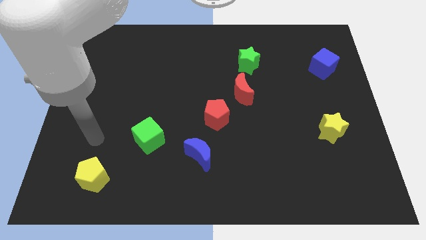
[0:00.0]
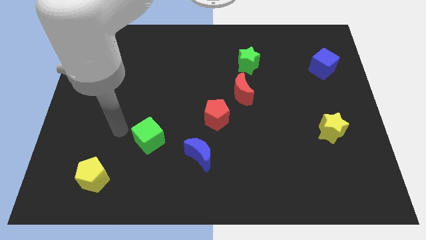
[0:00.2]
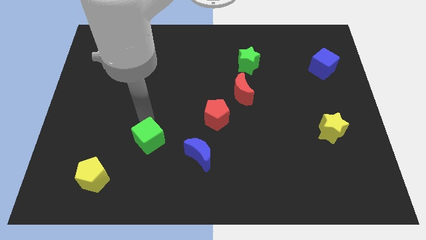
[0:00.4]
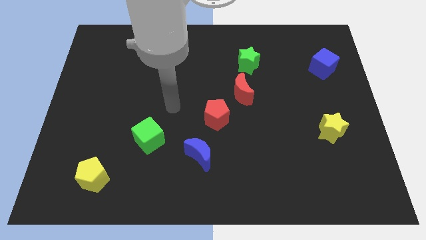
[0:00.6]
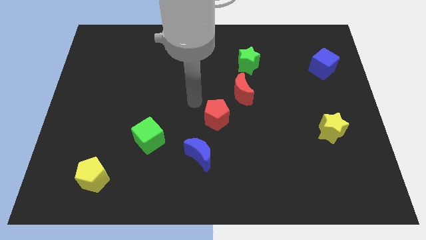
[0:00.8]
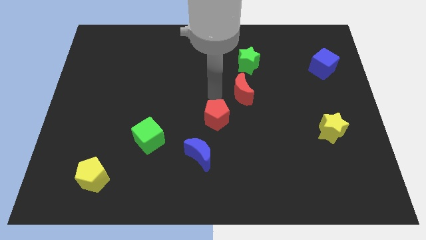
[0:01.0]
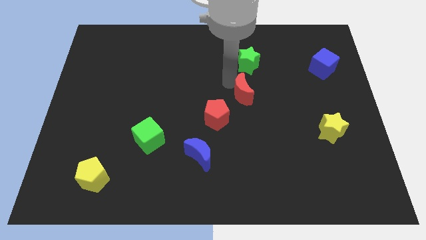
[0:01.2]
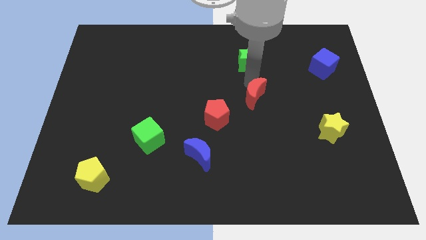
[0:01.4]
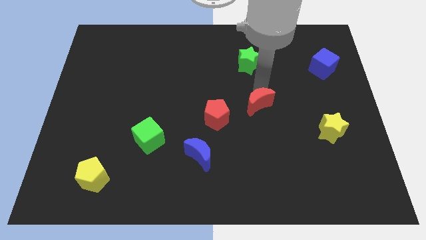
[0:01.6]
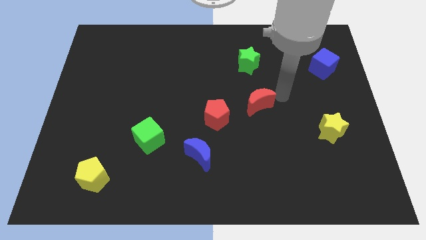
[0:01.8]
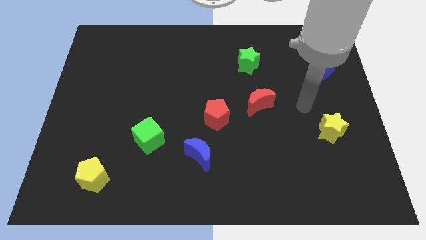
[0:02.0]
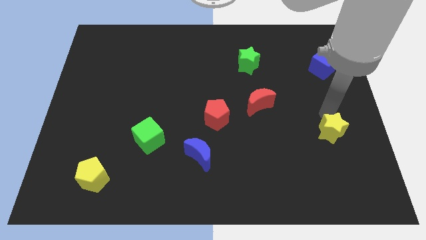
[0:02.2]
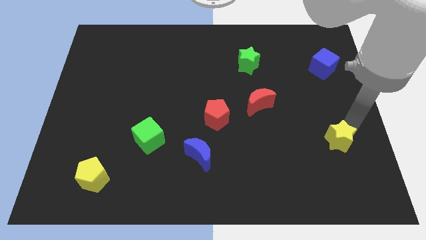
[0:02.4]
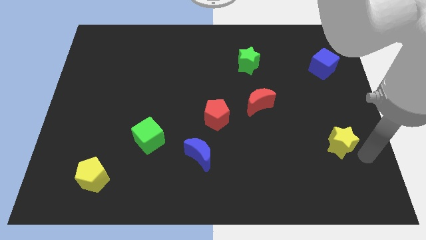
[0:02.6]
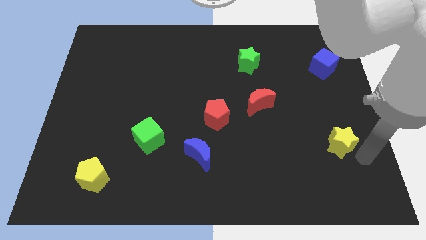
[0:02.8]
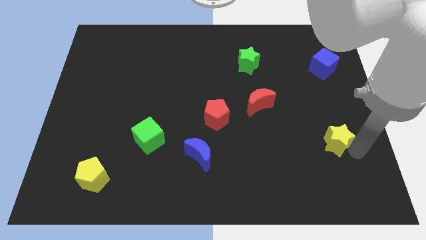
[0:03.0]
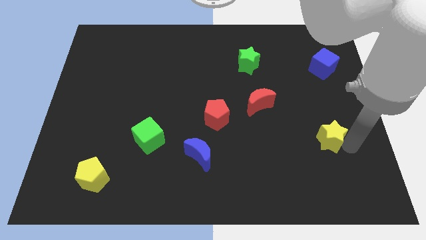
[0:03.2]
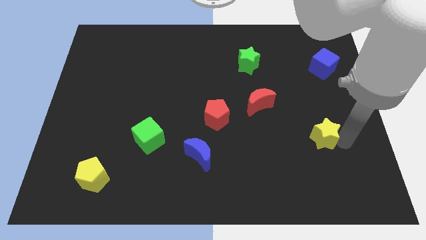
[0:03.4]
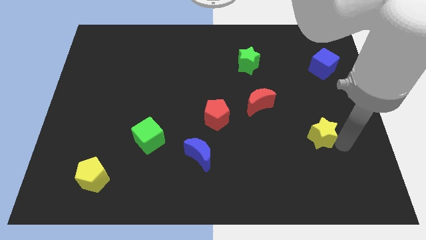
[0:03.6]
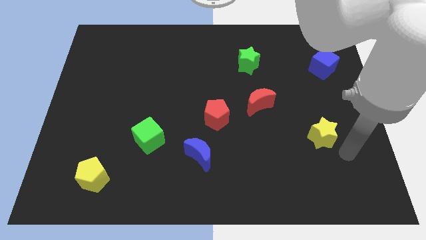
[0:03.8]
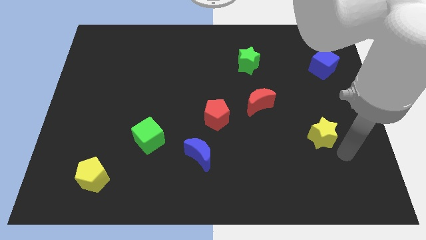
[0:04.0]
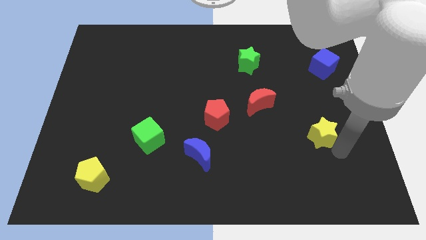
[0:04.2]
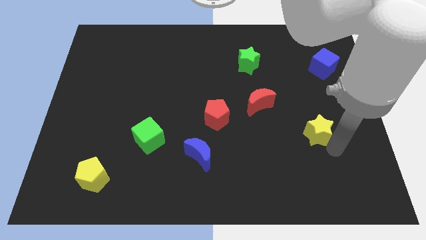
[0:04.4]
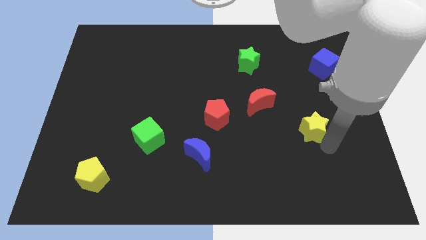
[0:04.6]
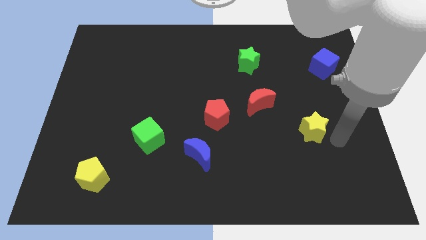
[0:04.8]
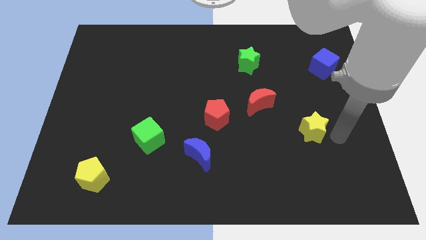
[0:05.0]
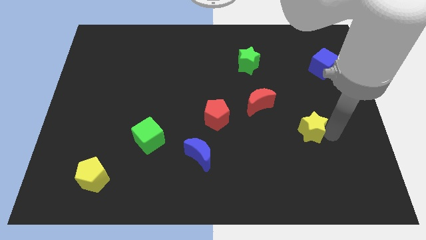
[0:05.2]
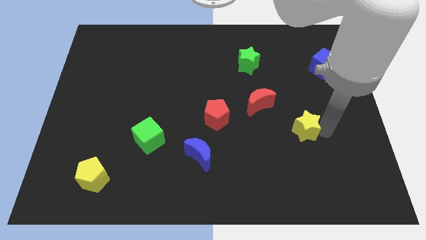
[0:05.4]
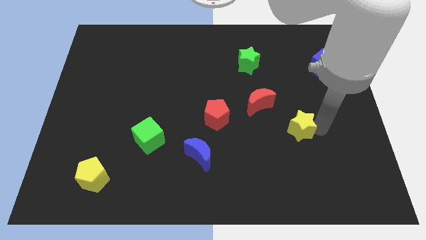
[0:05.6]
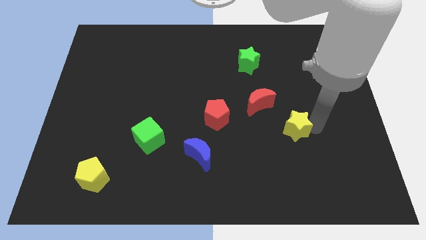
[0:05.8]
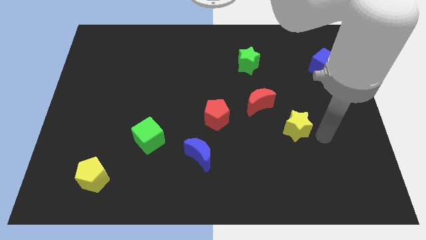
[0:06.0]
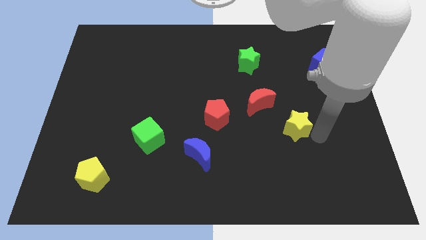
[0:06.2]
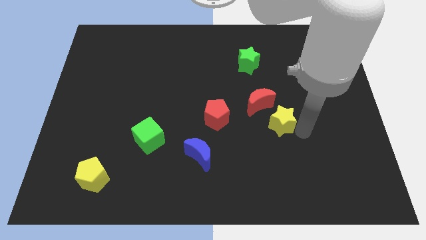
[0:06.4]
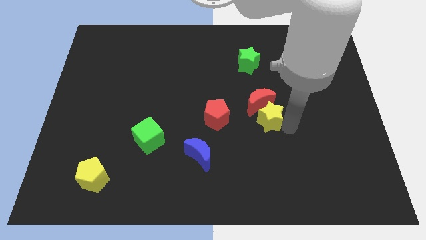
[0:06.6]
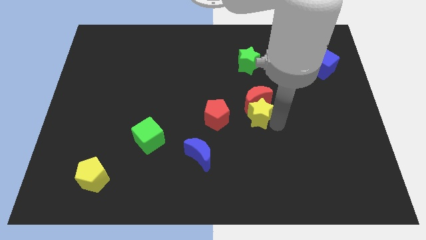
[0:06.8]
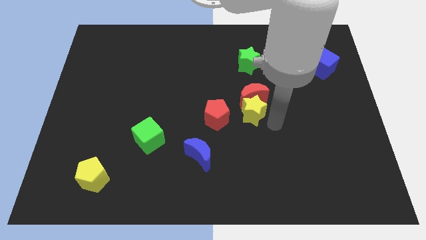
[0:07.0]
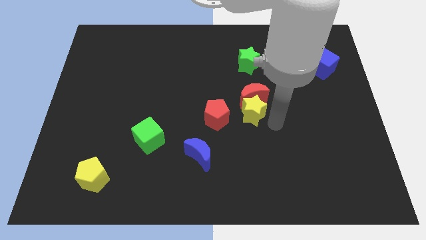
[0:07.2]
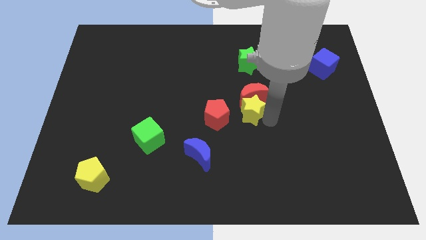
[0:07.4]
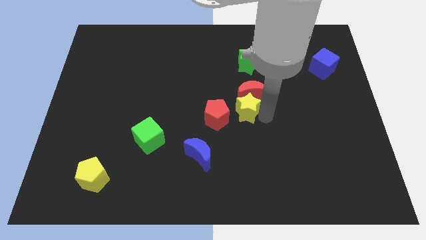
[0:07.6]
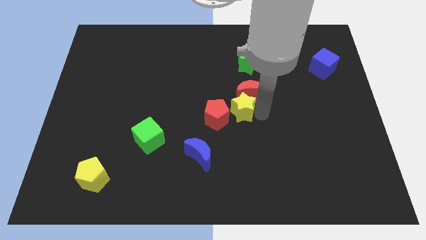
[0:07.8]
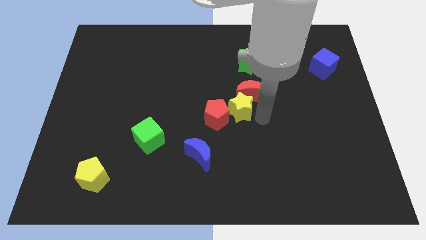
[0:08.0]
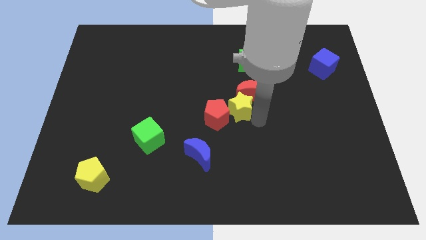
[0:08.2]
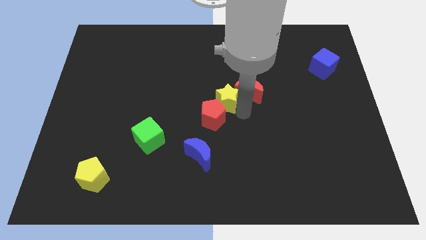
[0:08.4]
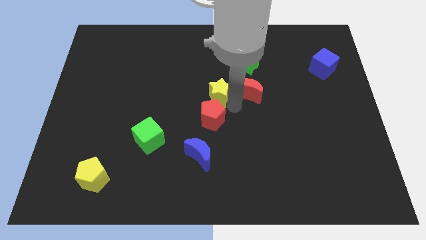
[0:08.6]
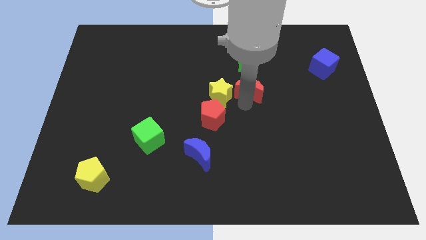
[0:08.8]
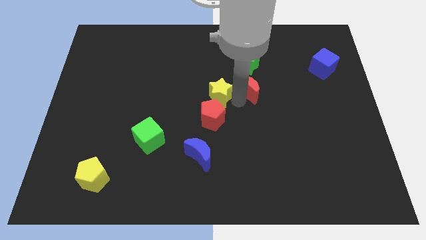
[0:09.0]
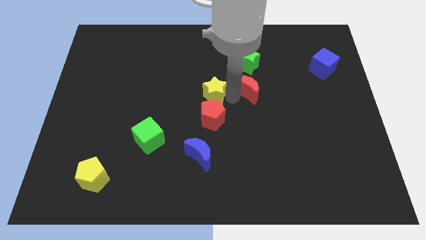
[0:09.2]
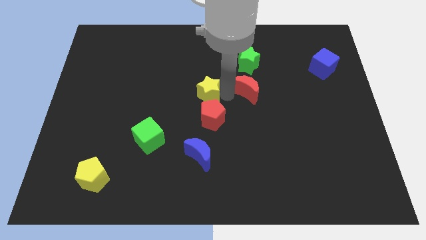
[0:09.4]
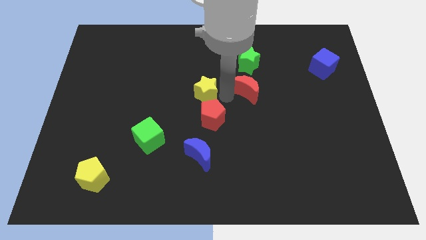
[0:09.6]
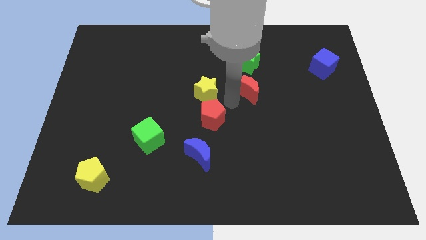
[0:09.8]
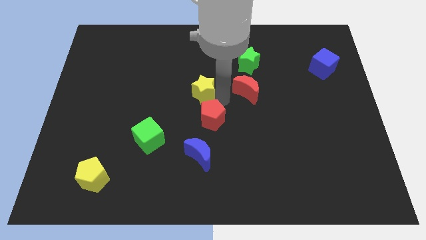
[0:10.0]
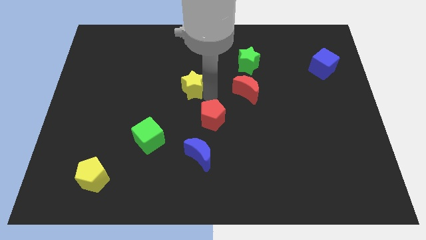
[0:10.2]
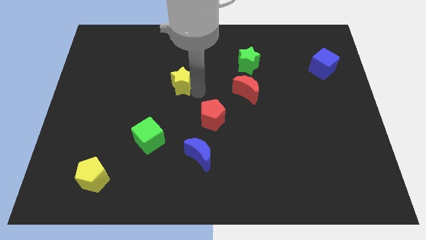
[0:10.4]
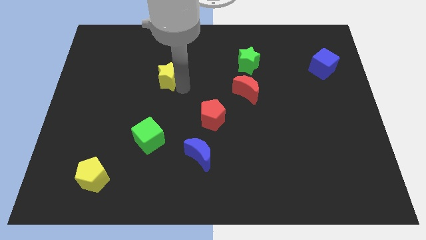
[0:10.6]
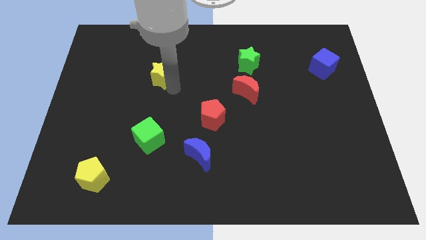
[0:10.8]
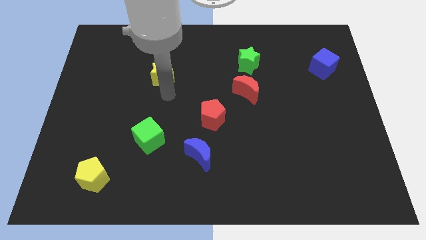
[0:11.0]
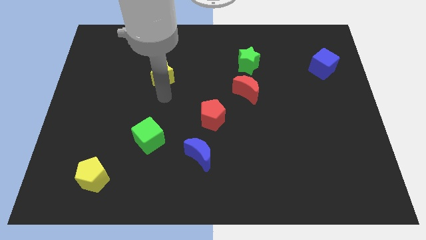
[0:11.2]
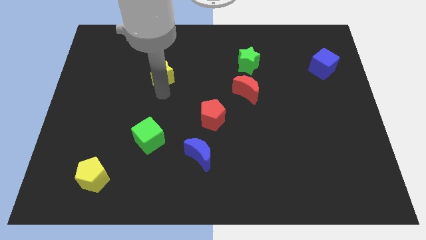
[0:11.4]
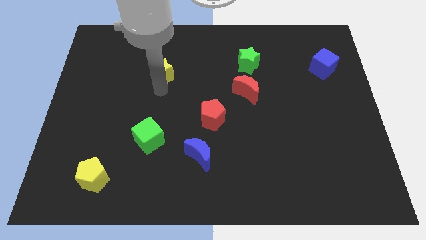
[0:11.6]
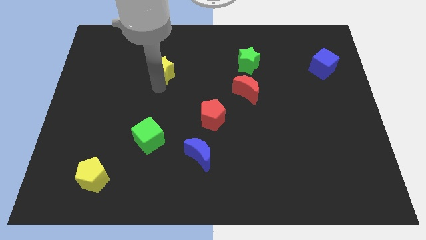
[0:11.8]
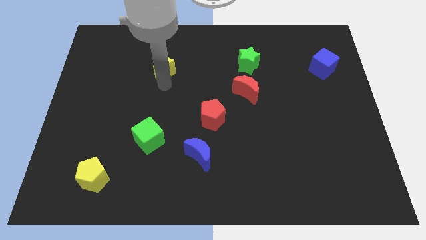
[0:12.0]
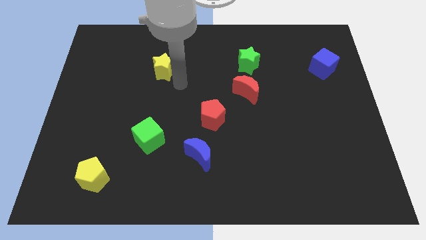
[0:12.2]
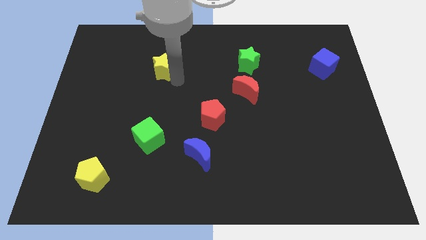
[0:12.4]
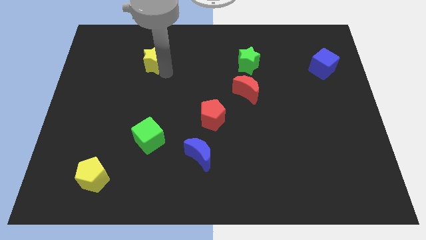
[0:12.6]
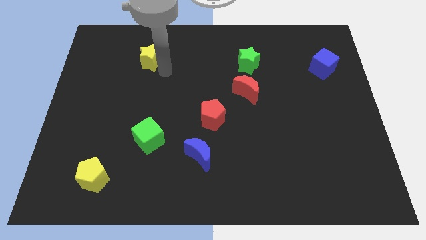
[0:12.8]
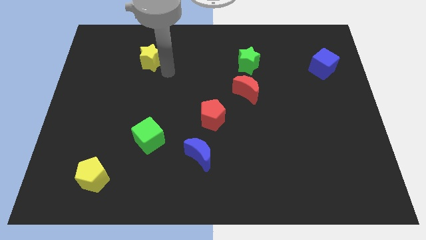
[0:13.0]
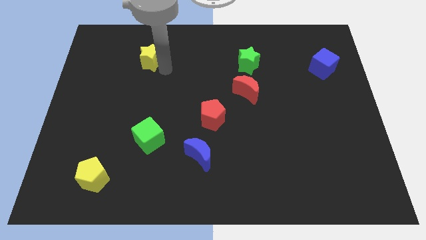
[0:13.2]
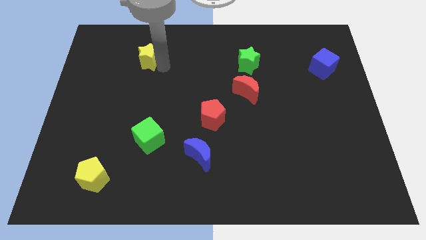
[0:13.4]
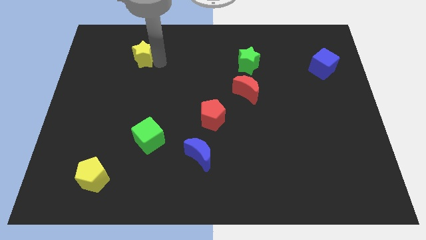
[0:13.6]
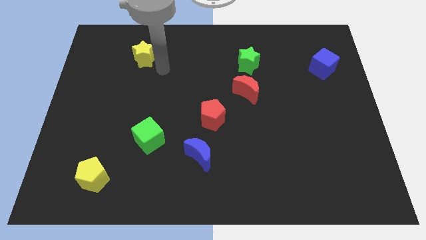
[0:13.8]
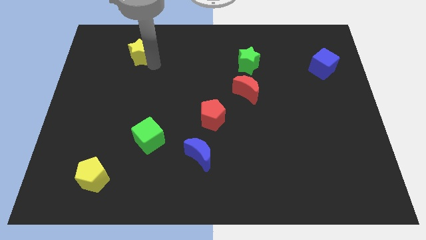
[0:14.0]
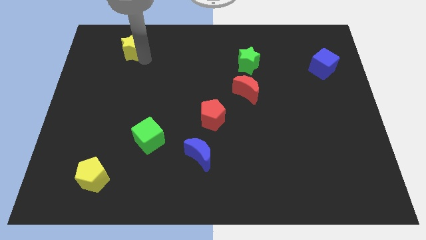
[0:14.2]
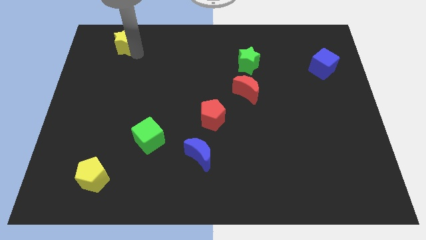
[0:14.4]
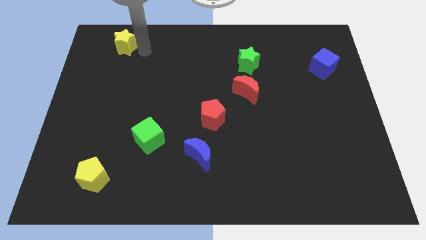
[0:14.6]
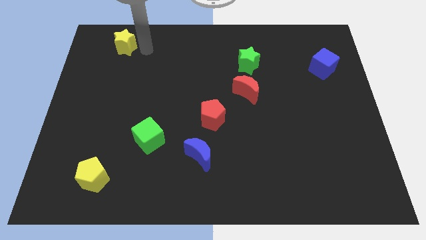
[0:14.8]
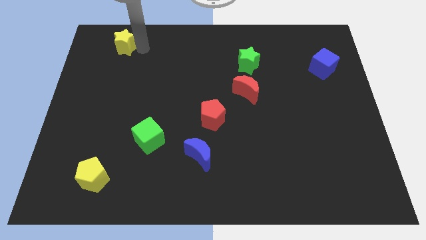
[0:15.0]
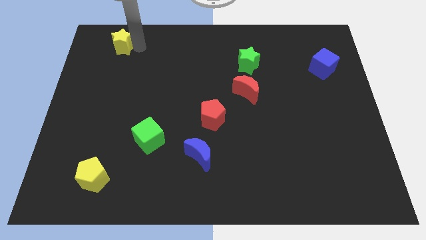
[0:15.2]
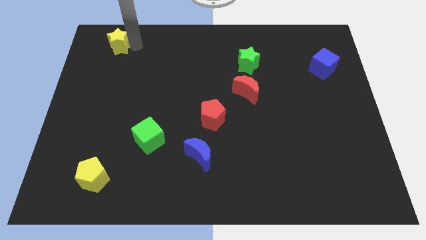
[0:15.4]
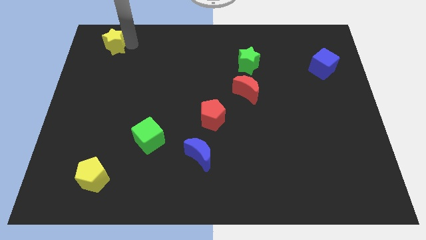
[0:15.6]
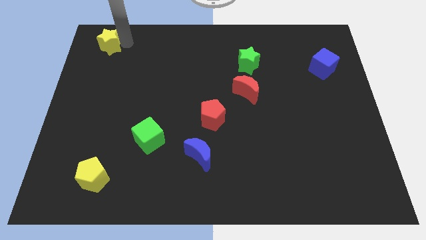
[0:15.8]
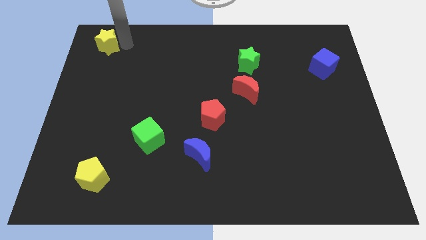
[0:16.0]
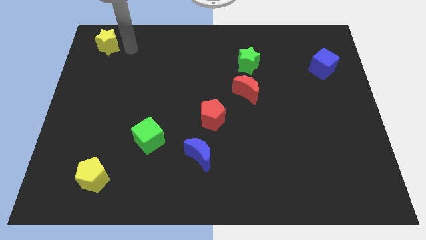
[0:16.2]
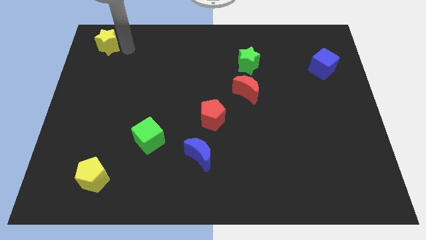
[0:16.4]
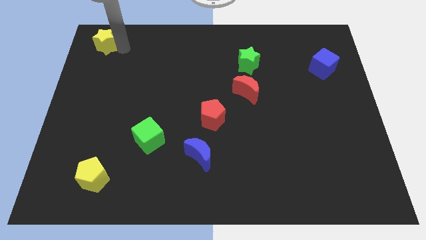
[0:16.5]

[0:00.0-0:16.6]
slide the yellow star to the top left of the board
